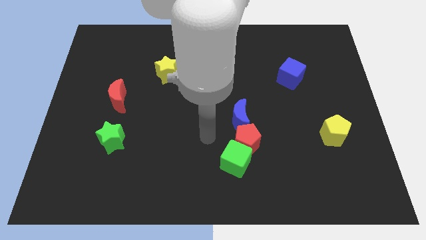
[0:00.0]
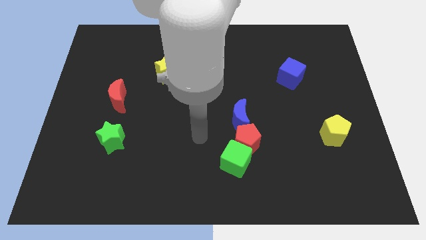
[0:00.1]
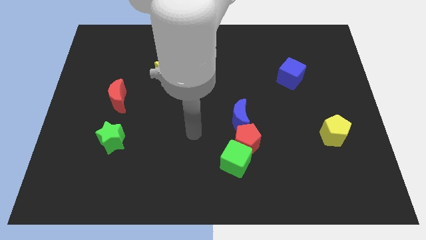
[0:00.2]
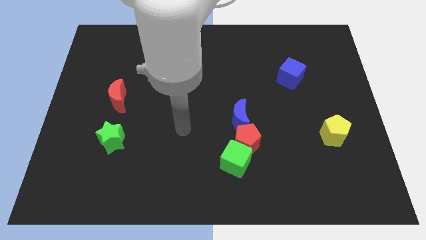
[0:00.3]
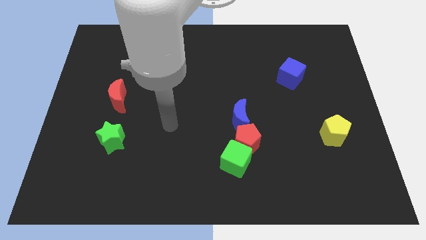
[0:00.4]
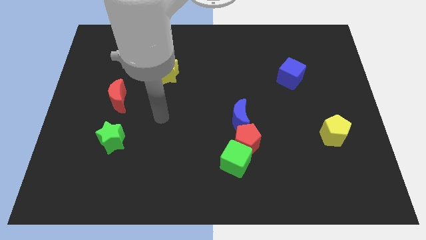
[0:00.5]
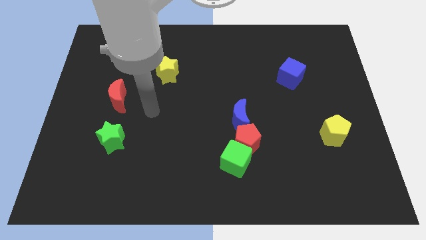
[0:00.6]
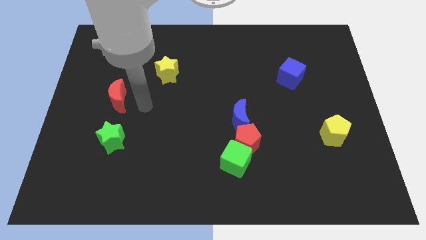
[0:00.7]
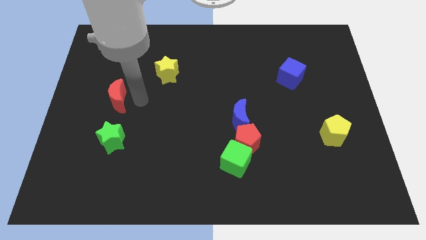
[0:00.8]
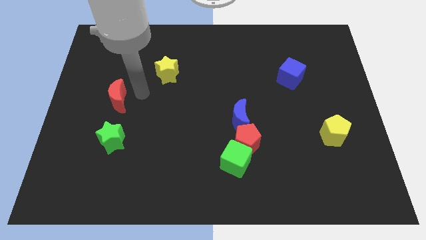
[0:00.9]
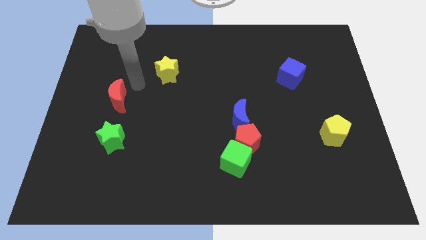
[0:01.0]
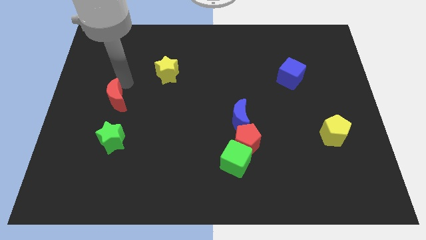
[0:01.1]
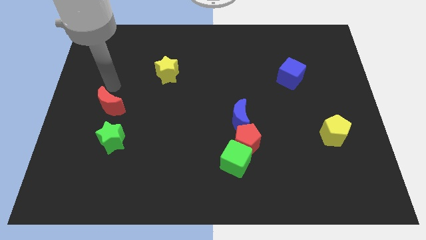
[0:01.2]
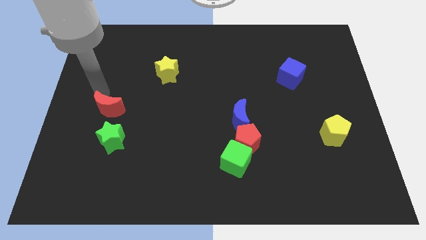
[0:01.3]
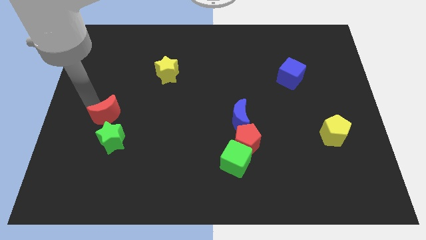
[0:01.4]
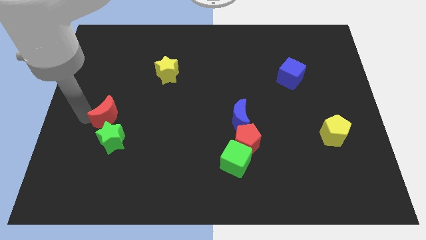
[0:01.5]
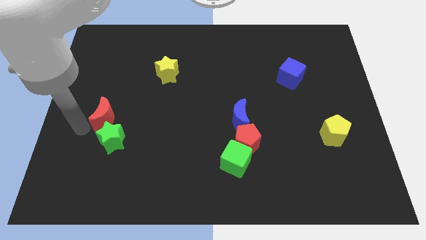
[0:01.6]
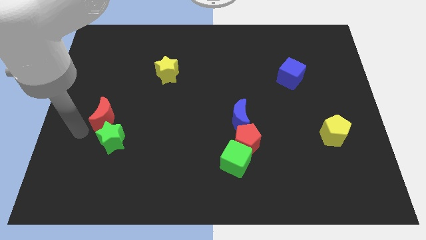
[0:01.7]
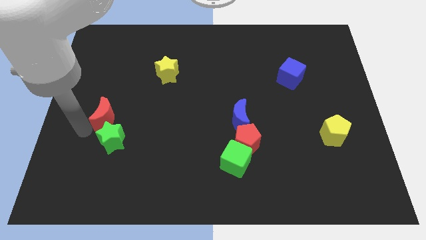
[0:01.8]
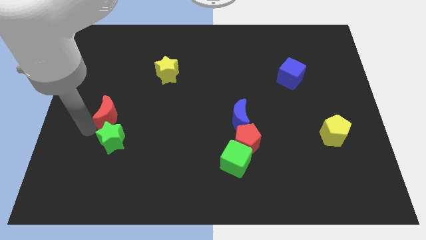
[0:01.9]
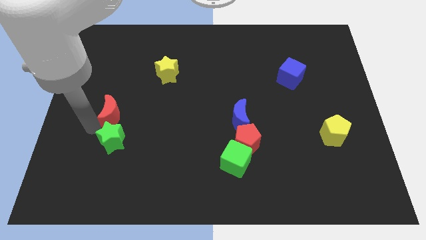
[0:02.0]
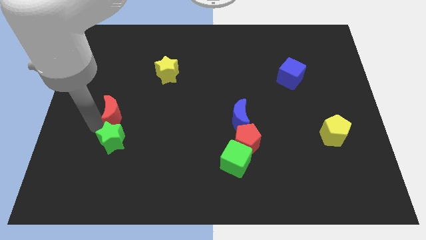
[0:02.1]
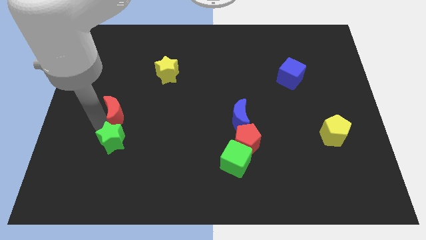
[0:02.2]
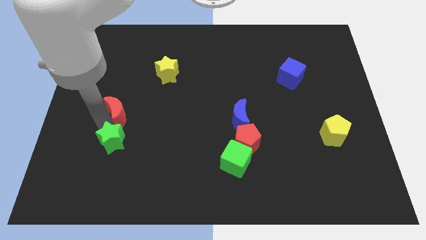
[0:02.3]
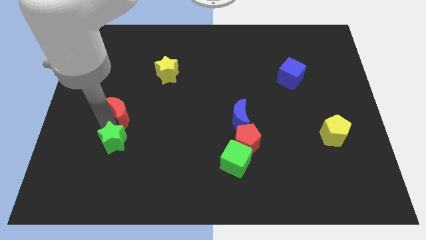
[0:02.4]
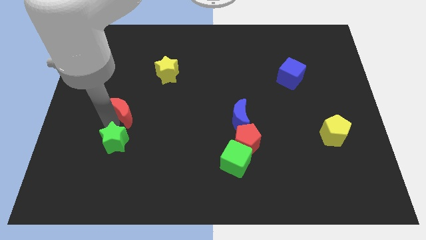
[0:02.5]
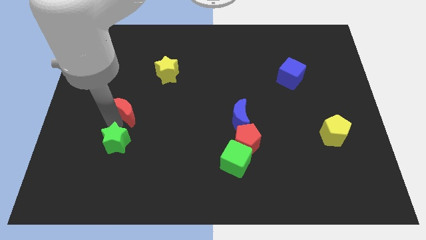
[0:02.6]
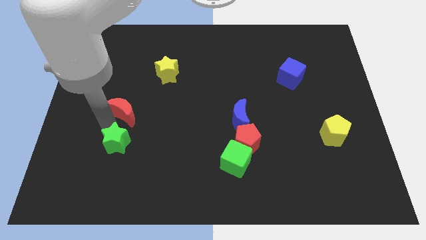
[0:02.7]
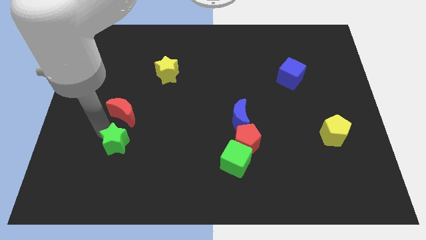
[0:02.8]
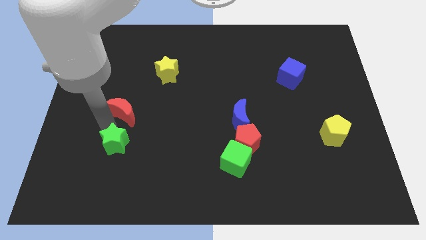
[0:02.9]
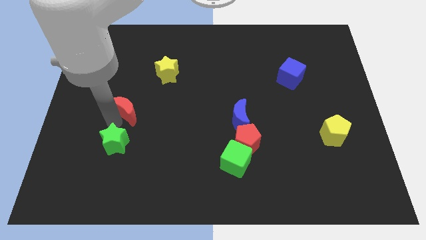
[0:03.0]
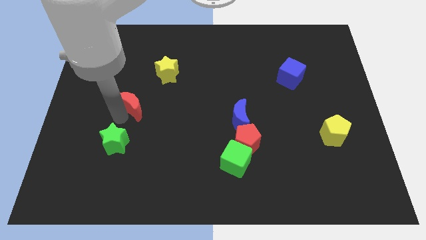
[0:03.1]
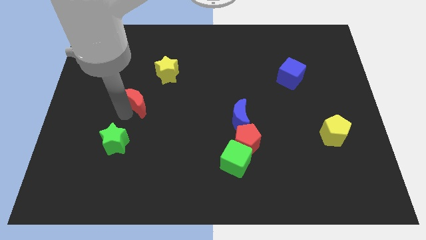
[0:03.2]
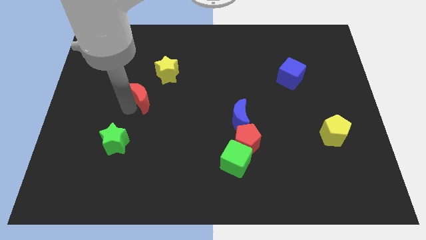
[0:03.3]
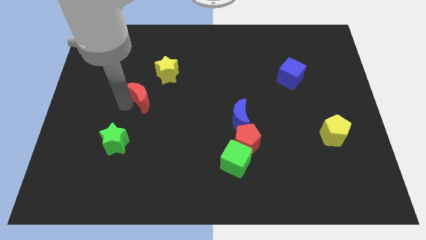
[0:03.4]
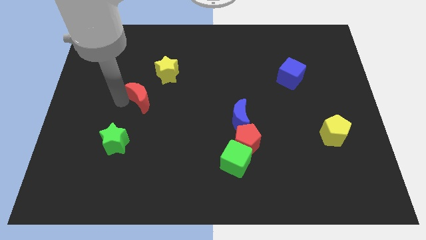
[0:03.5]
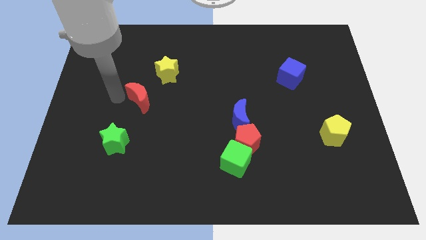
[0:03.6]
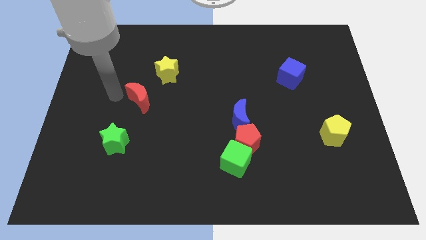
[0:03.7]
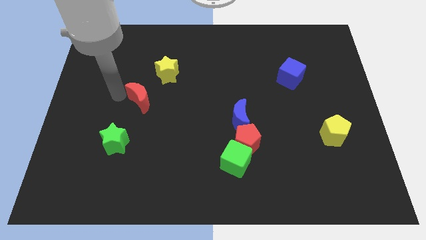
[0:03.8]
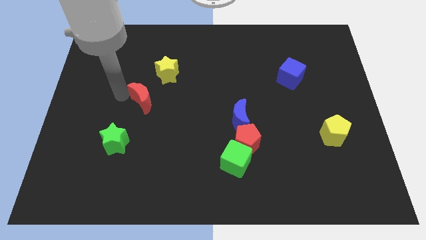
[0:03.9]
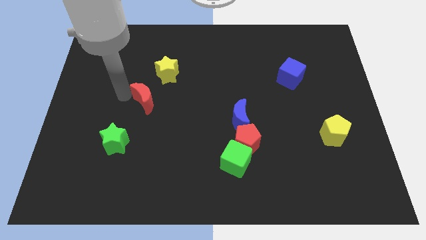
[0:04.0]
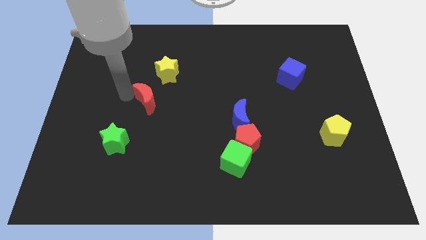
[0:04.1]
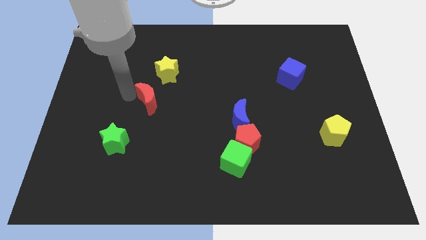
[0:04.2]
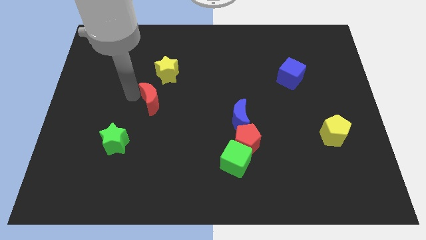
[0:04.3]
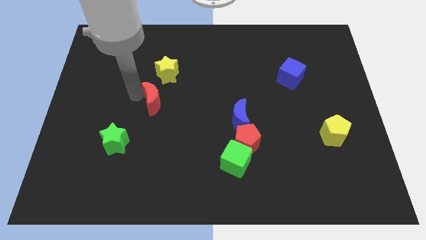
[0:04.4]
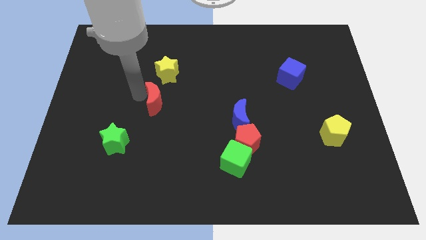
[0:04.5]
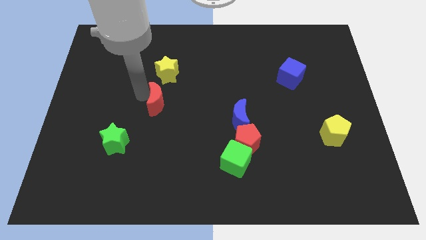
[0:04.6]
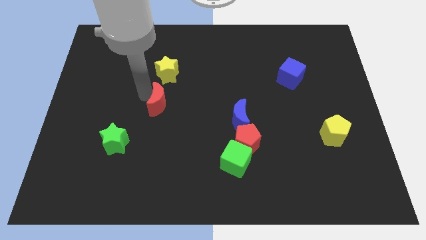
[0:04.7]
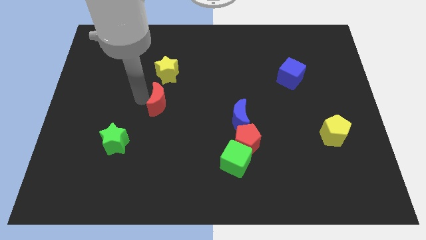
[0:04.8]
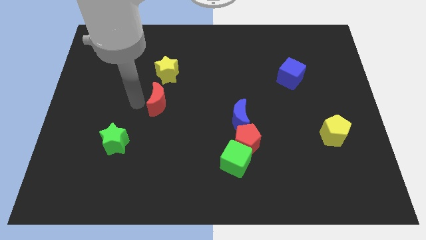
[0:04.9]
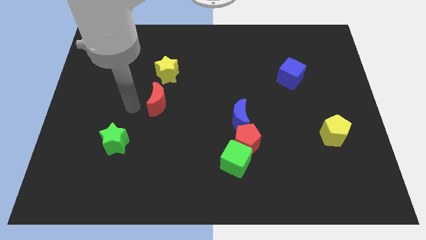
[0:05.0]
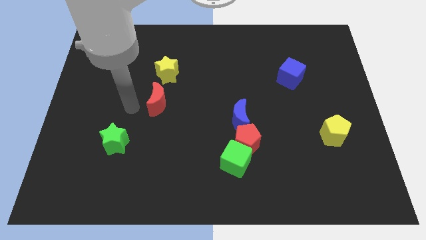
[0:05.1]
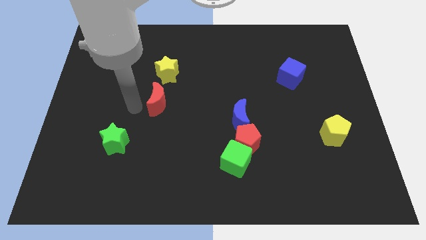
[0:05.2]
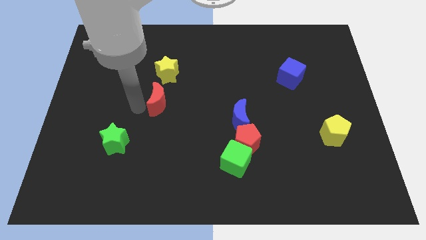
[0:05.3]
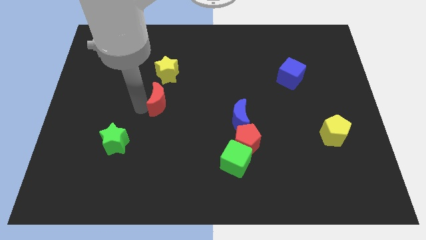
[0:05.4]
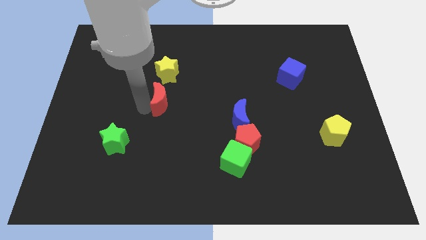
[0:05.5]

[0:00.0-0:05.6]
push the red moon to the center of the board

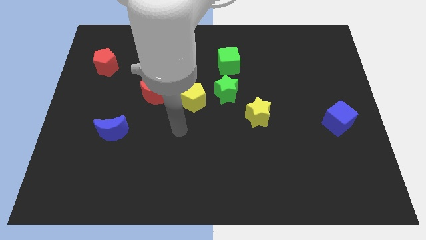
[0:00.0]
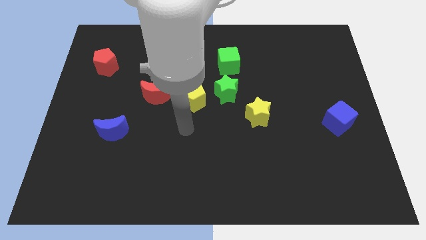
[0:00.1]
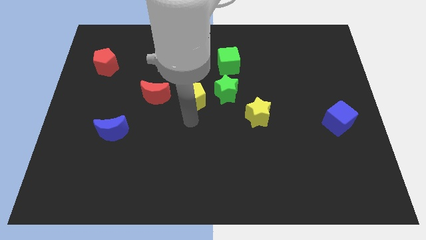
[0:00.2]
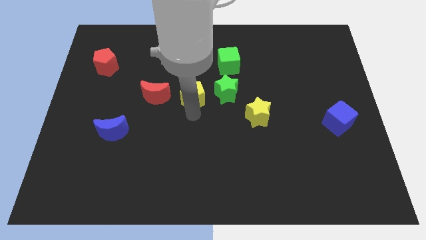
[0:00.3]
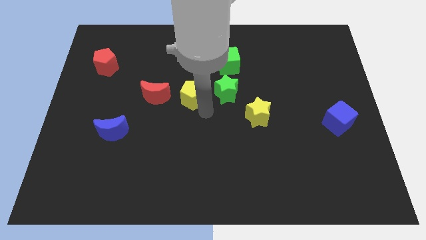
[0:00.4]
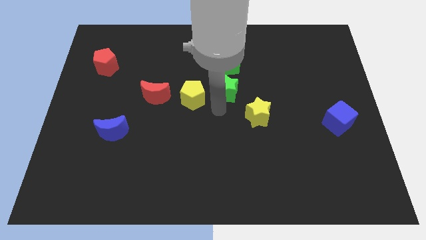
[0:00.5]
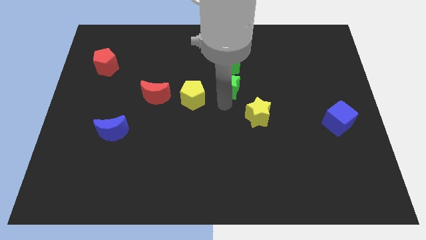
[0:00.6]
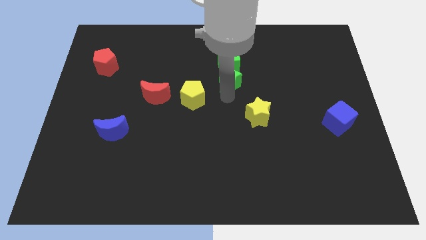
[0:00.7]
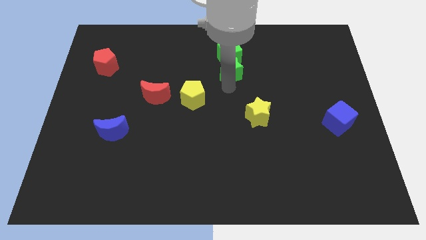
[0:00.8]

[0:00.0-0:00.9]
move the green cube to the towards your base
